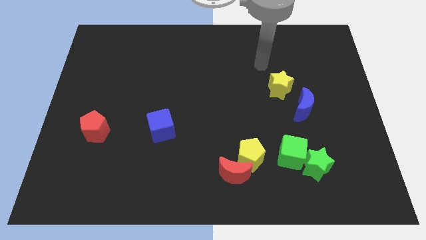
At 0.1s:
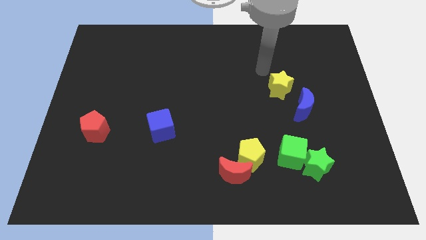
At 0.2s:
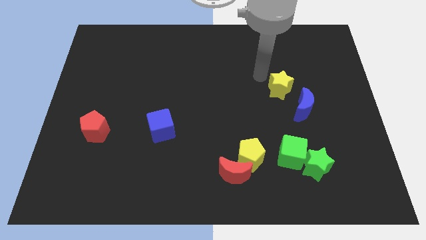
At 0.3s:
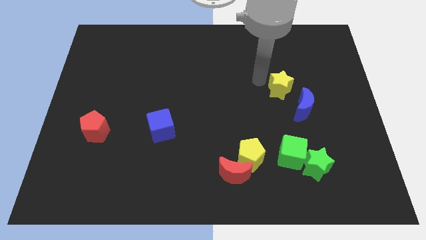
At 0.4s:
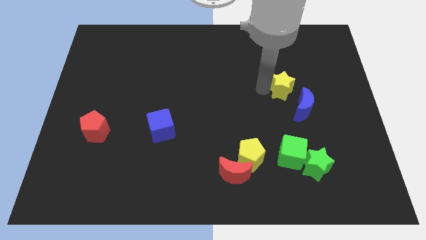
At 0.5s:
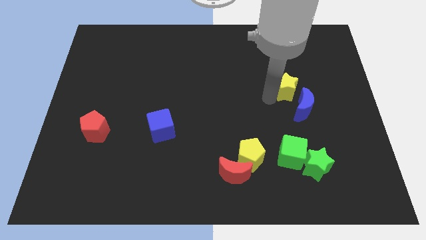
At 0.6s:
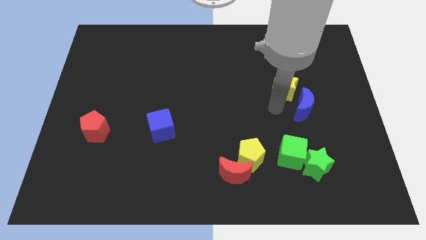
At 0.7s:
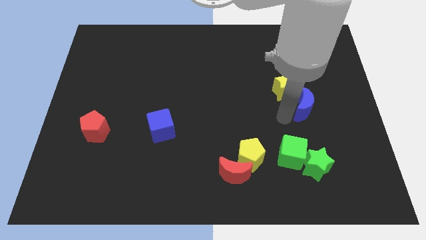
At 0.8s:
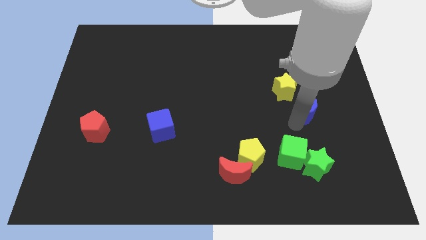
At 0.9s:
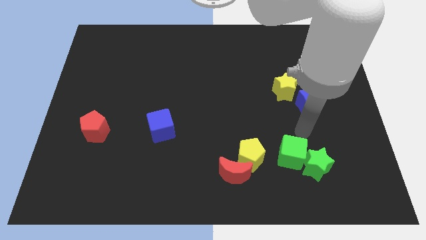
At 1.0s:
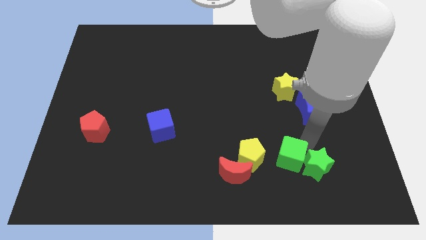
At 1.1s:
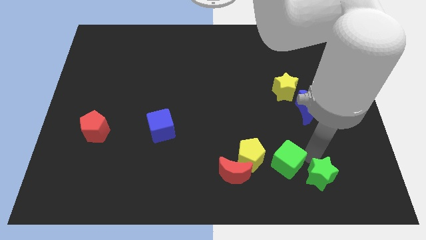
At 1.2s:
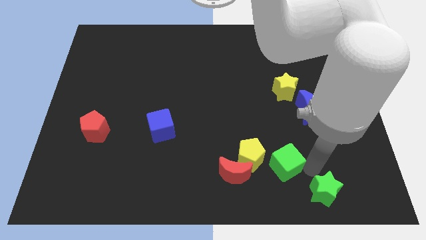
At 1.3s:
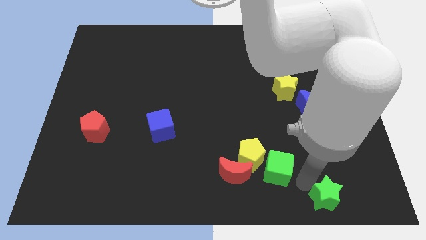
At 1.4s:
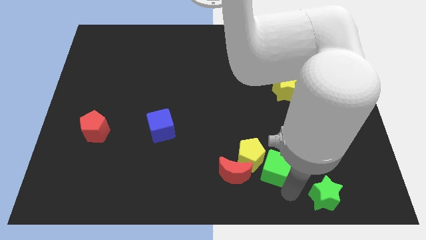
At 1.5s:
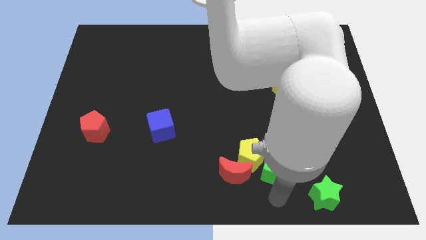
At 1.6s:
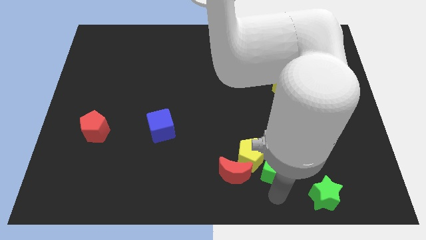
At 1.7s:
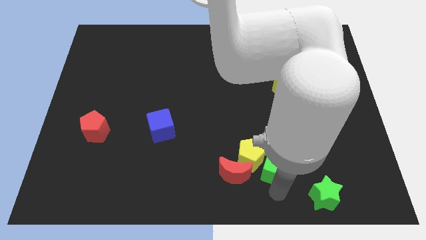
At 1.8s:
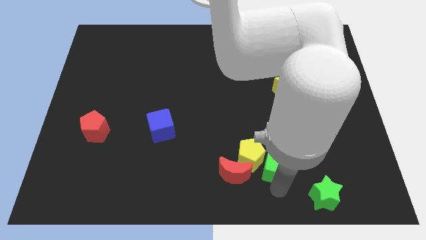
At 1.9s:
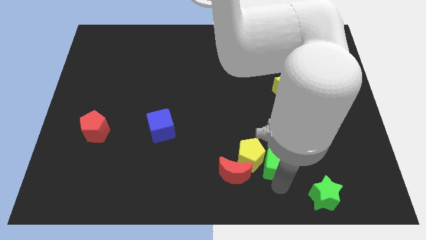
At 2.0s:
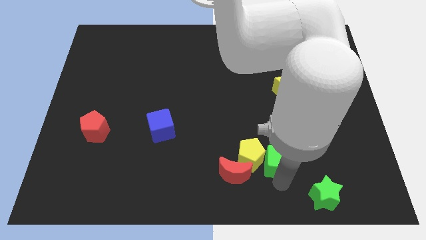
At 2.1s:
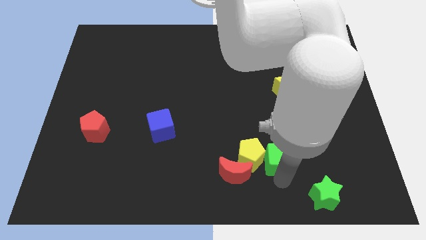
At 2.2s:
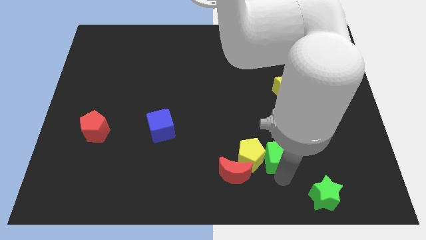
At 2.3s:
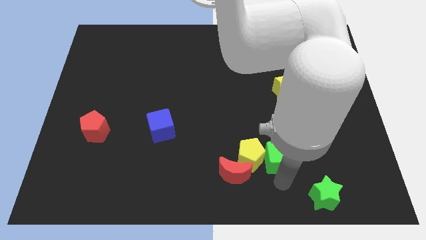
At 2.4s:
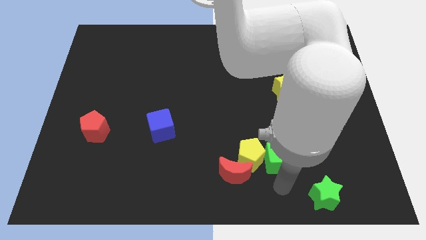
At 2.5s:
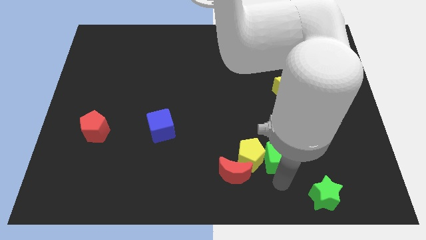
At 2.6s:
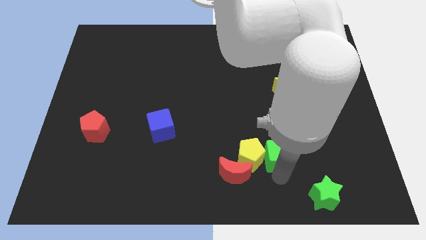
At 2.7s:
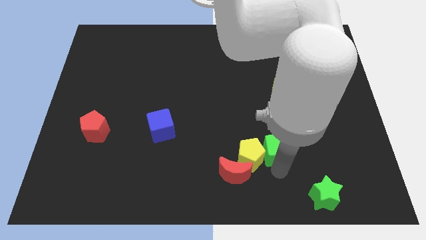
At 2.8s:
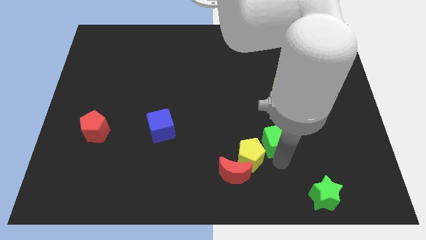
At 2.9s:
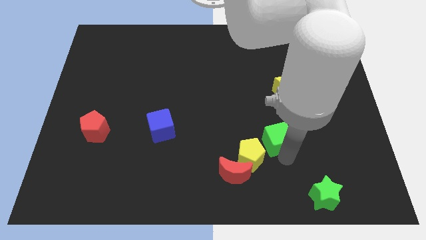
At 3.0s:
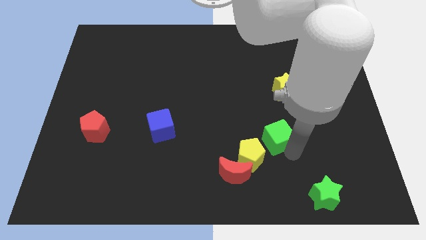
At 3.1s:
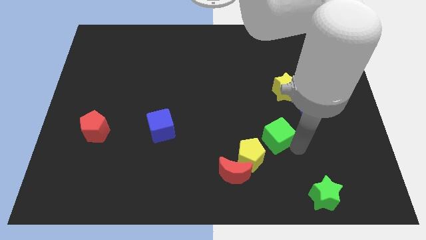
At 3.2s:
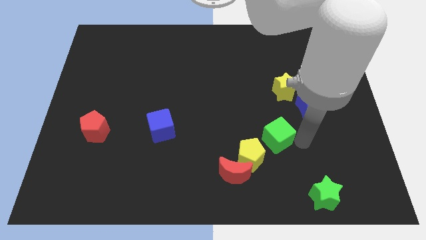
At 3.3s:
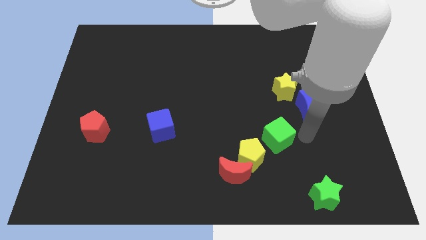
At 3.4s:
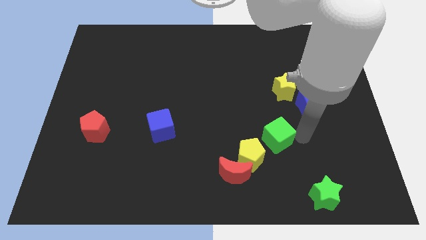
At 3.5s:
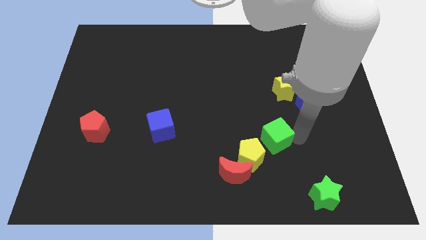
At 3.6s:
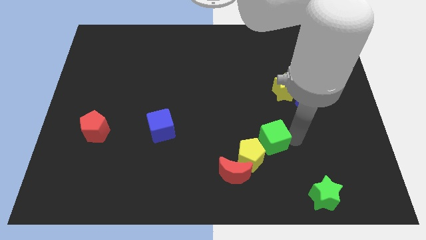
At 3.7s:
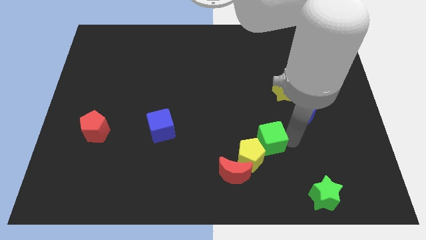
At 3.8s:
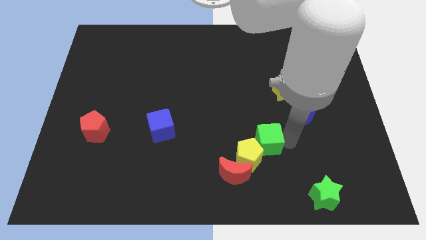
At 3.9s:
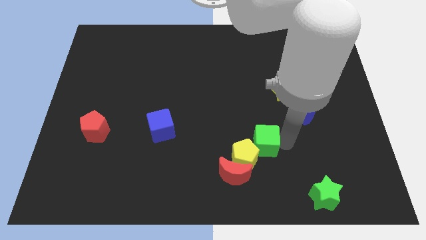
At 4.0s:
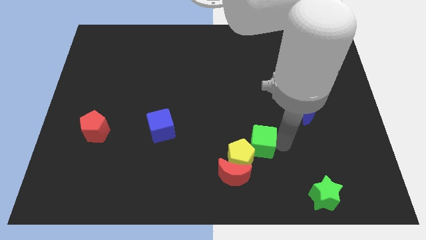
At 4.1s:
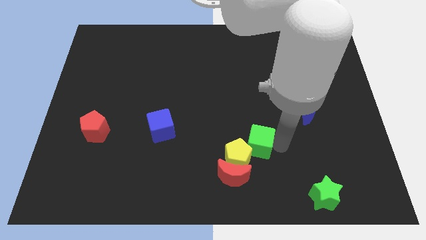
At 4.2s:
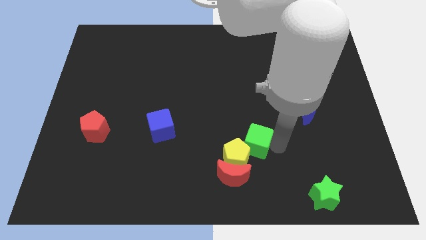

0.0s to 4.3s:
slightly slide the green cube to the left

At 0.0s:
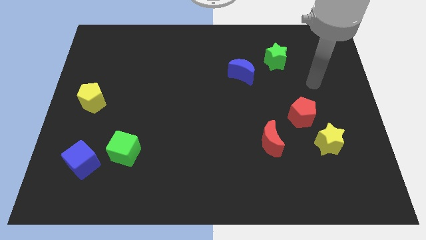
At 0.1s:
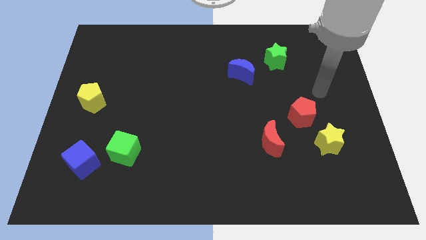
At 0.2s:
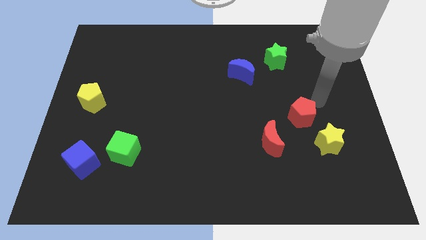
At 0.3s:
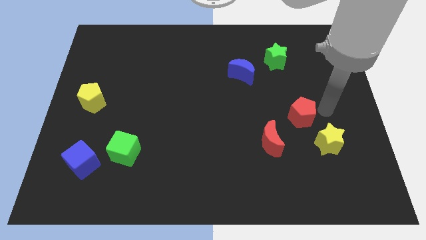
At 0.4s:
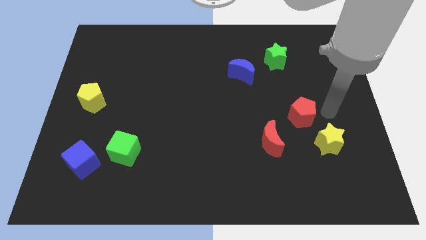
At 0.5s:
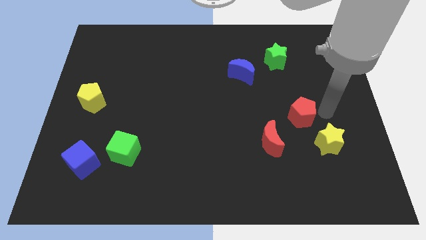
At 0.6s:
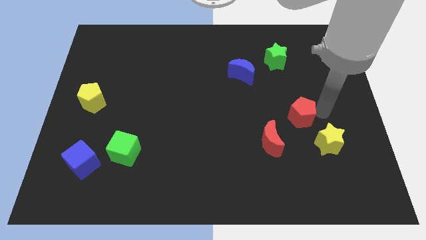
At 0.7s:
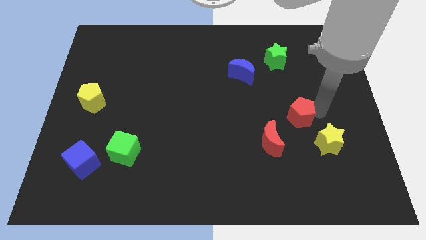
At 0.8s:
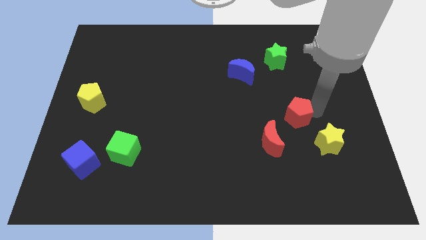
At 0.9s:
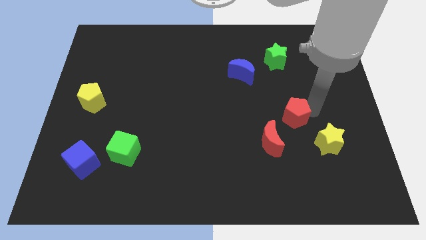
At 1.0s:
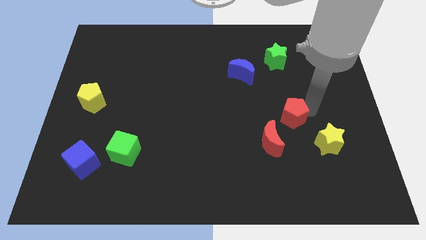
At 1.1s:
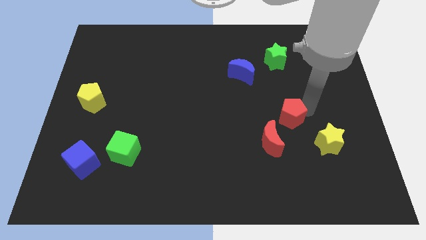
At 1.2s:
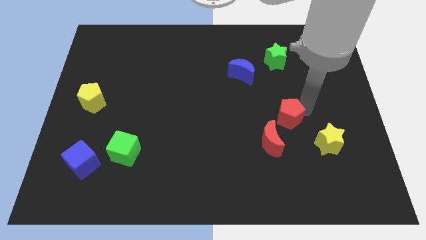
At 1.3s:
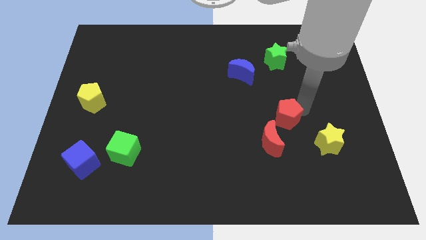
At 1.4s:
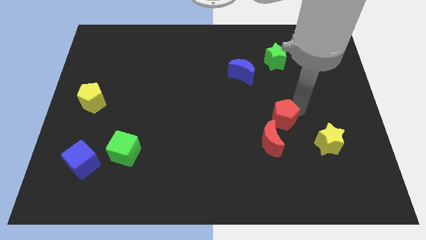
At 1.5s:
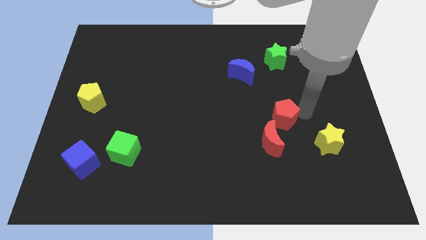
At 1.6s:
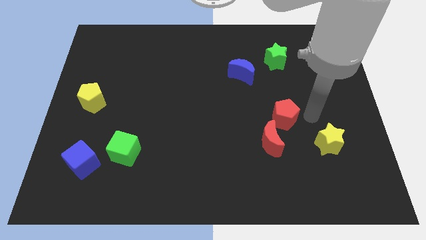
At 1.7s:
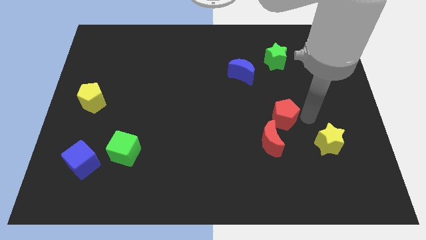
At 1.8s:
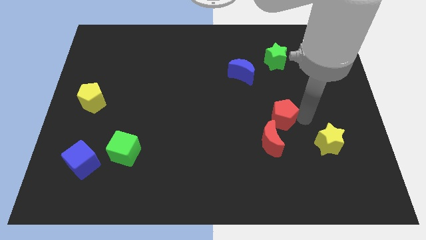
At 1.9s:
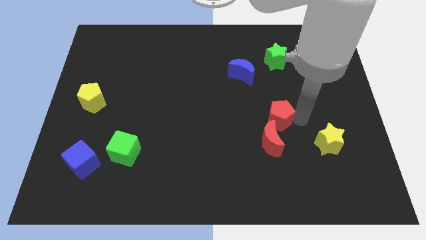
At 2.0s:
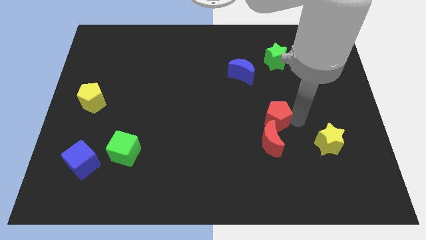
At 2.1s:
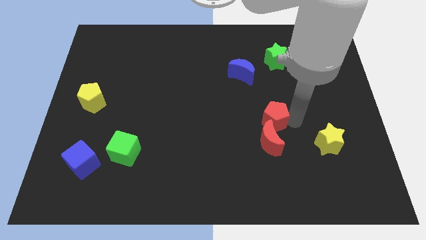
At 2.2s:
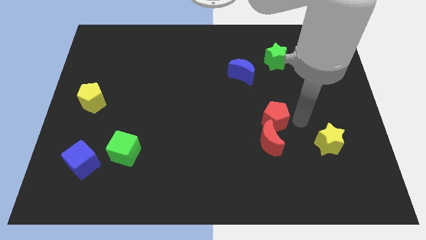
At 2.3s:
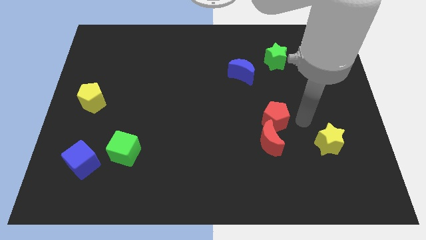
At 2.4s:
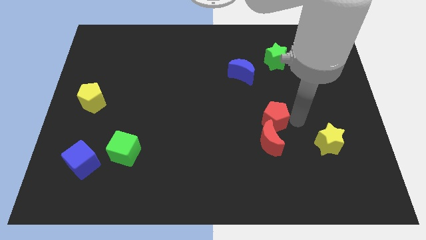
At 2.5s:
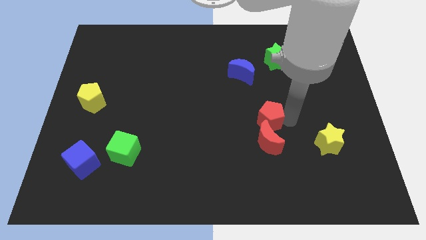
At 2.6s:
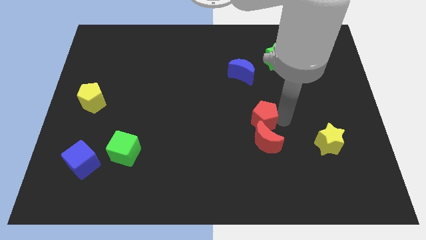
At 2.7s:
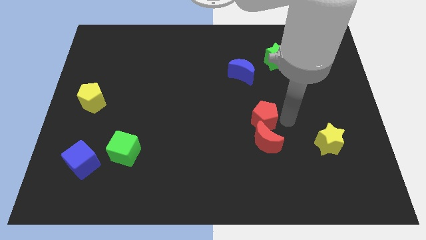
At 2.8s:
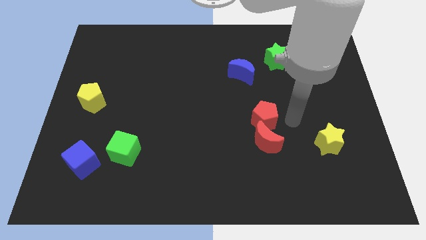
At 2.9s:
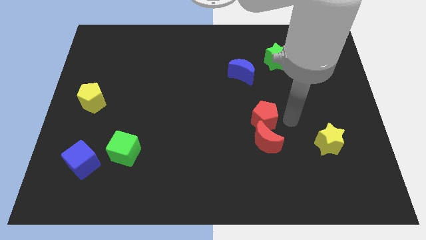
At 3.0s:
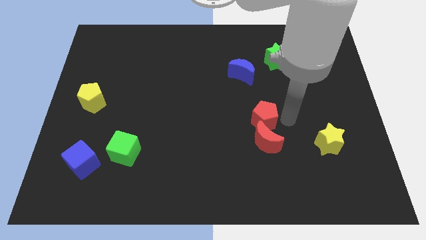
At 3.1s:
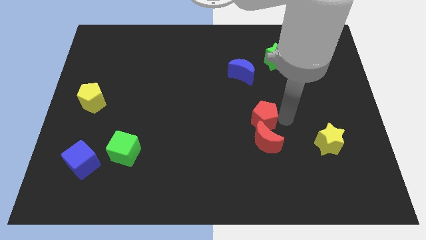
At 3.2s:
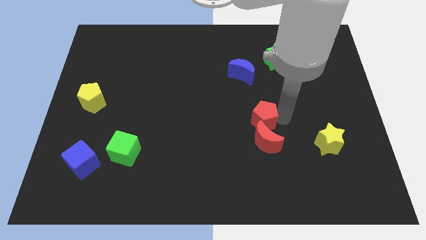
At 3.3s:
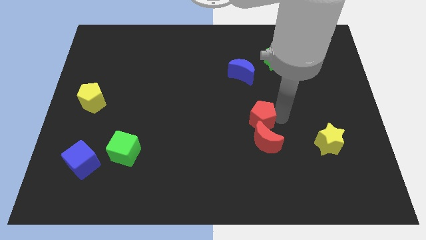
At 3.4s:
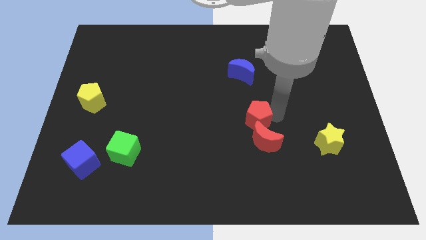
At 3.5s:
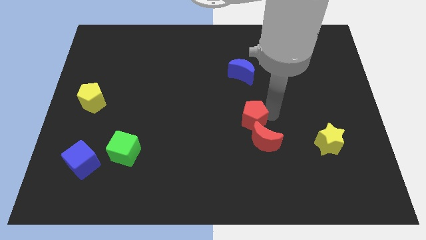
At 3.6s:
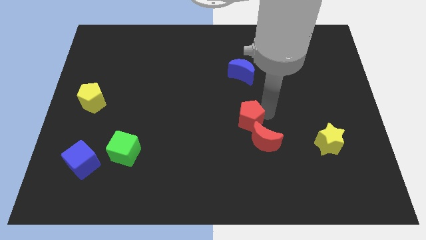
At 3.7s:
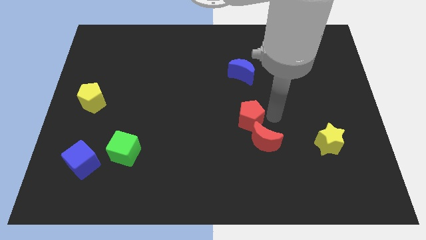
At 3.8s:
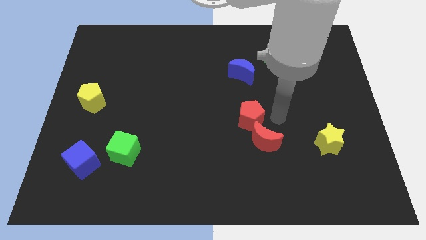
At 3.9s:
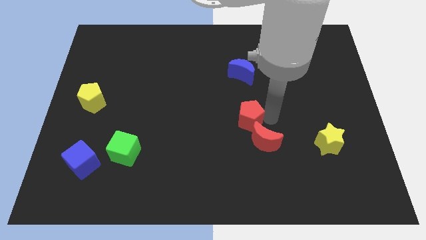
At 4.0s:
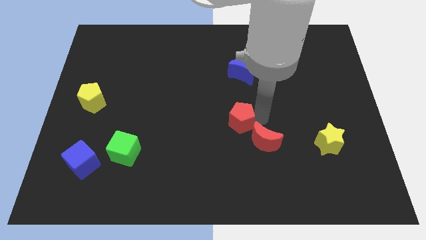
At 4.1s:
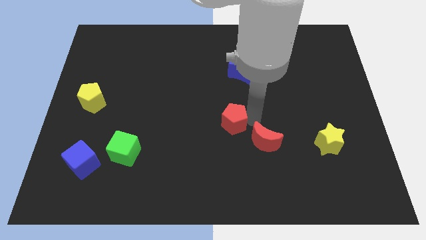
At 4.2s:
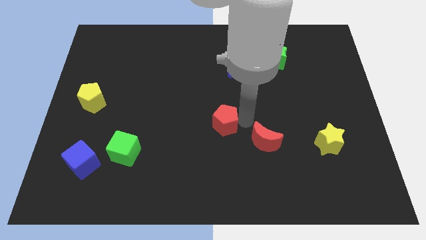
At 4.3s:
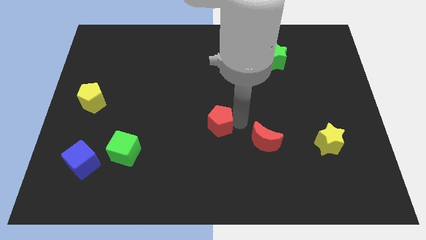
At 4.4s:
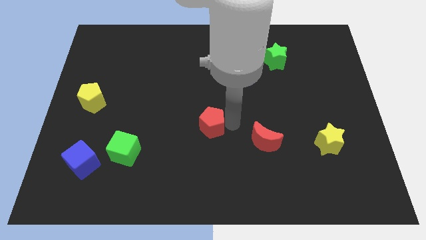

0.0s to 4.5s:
move the red pentagon to the left
